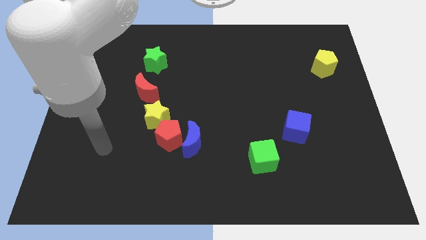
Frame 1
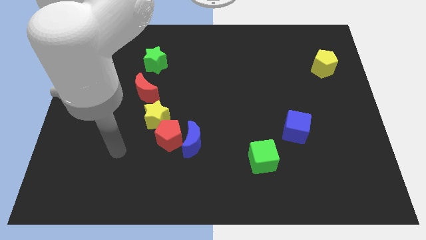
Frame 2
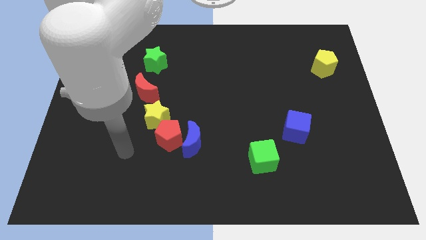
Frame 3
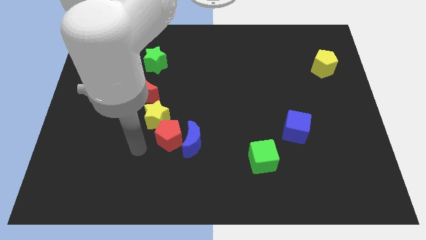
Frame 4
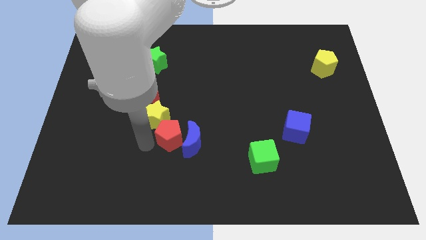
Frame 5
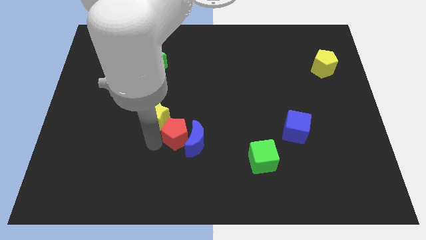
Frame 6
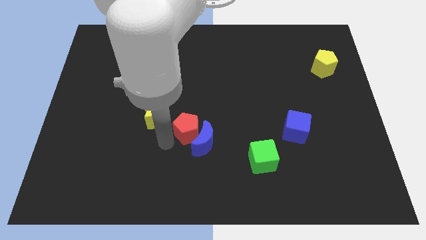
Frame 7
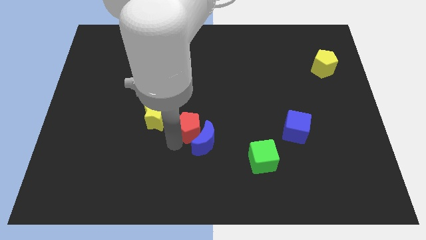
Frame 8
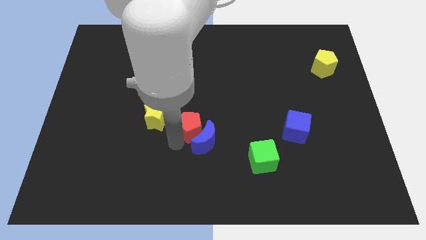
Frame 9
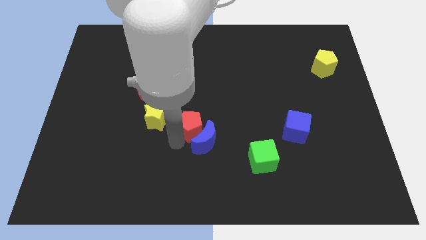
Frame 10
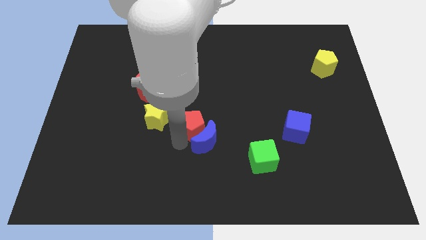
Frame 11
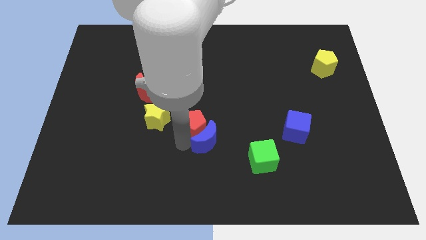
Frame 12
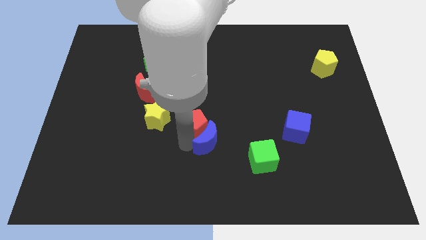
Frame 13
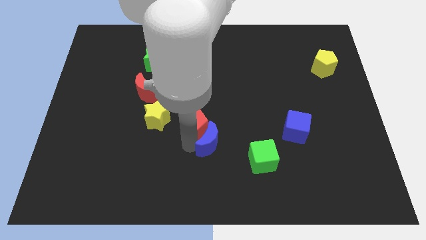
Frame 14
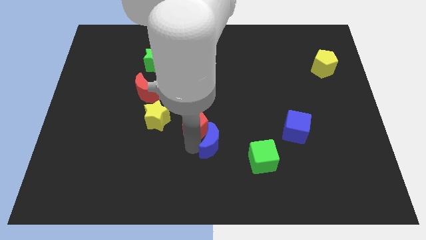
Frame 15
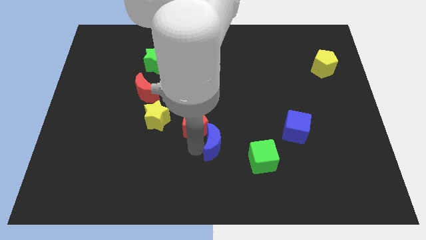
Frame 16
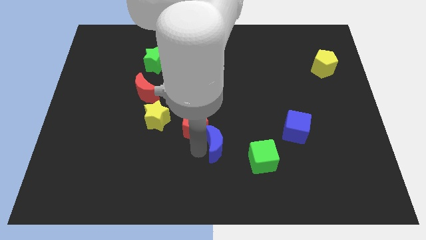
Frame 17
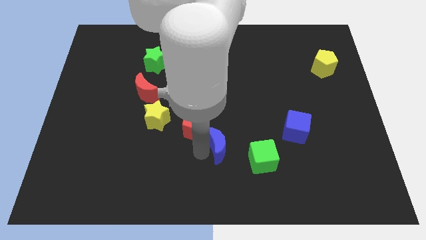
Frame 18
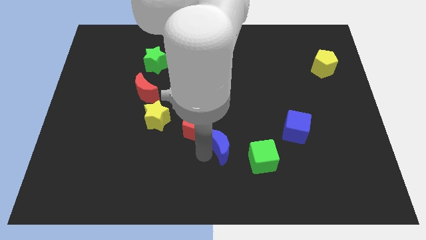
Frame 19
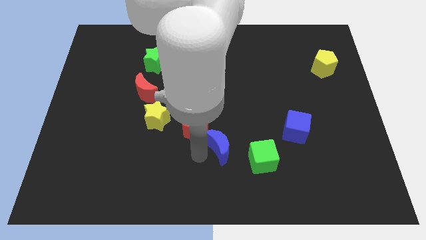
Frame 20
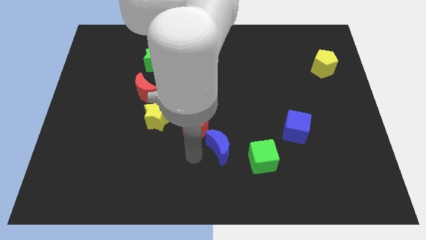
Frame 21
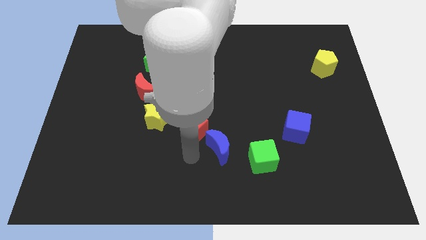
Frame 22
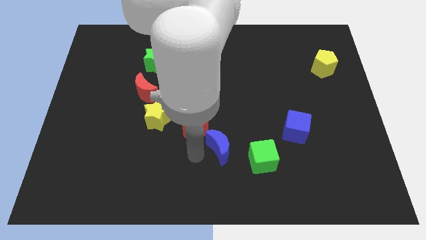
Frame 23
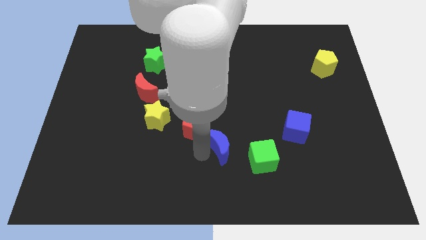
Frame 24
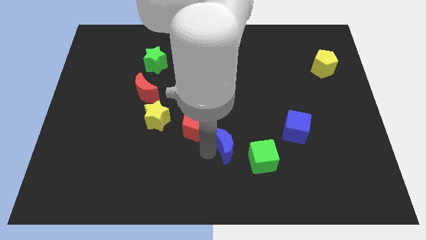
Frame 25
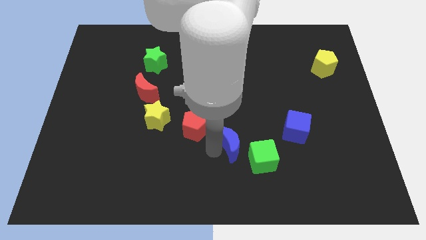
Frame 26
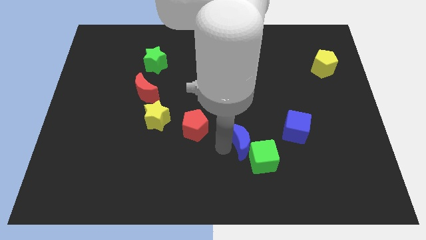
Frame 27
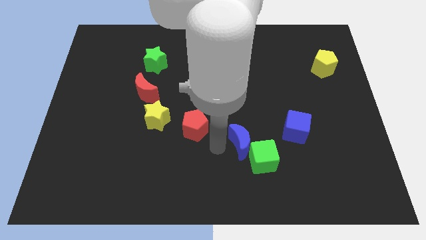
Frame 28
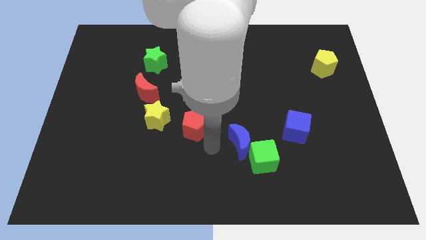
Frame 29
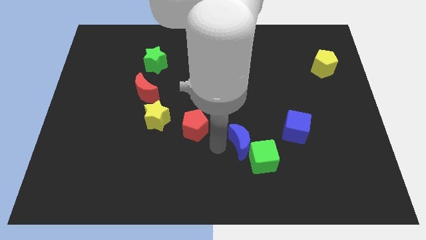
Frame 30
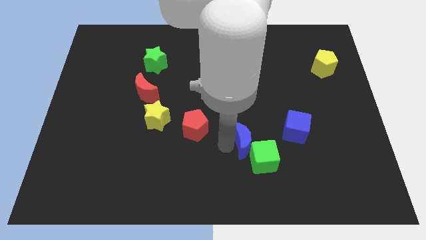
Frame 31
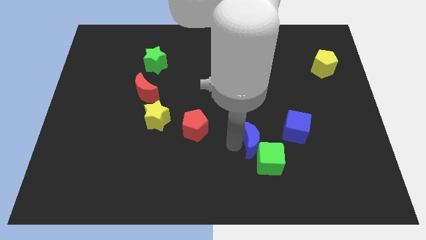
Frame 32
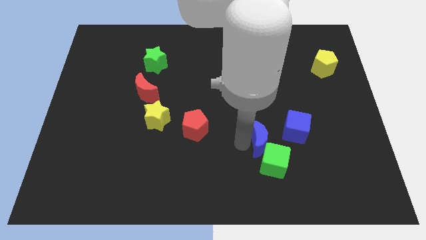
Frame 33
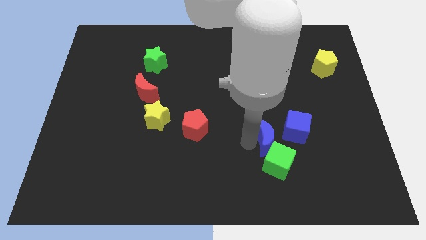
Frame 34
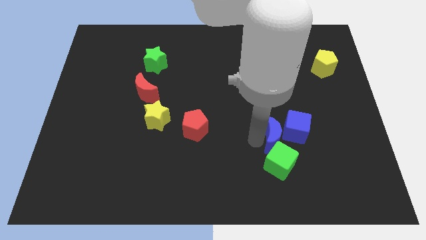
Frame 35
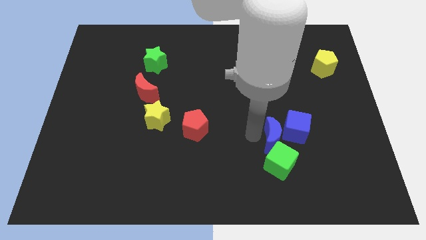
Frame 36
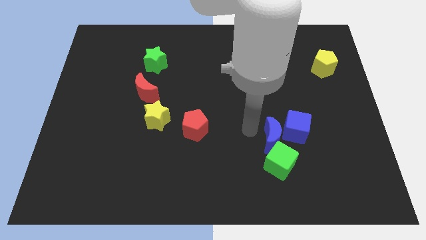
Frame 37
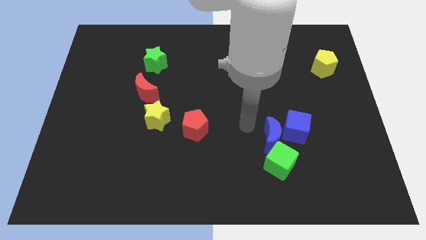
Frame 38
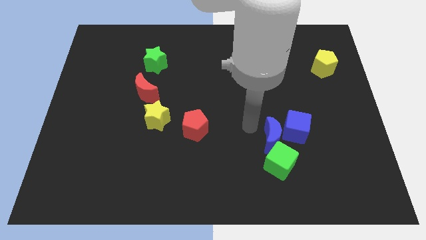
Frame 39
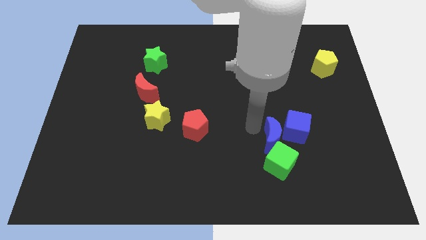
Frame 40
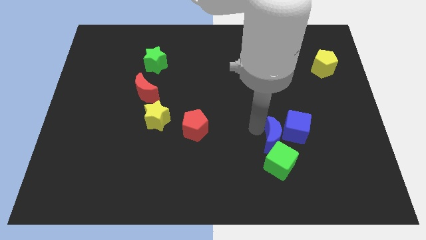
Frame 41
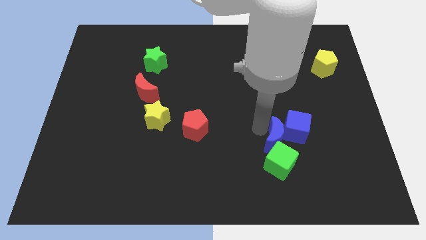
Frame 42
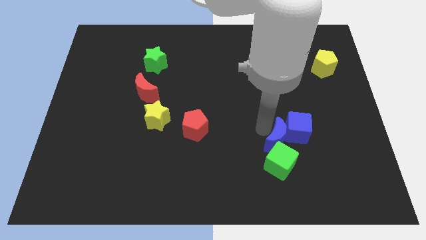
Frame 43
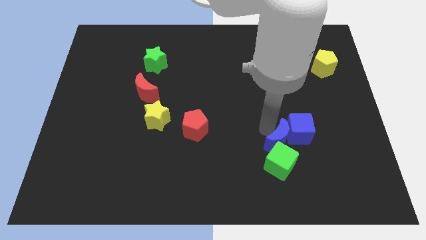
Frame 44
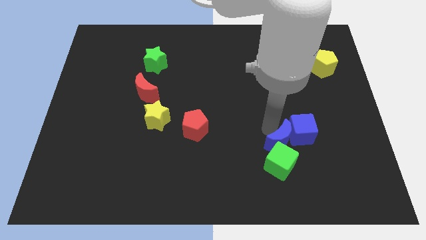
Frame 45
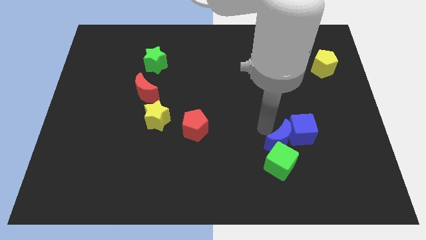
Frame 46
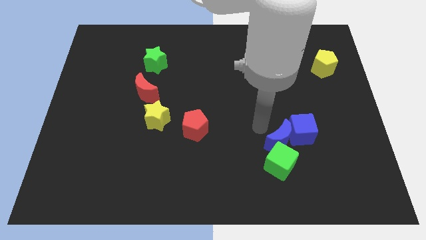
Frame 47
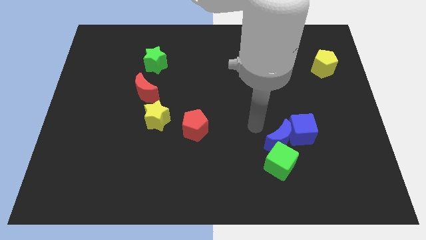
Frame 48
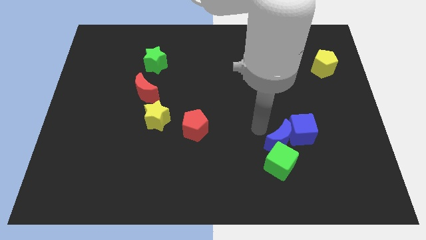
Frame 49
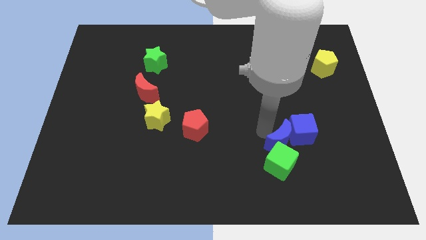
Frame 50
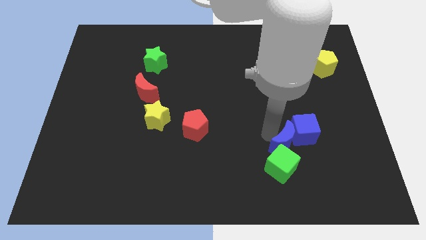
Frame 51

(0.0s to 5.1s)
move the blue moon to the right

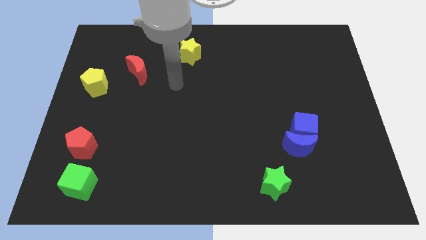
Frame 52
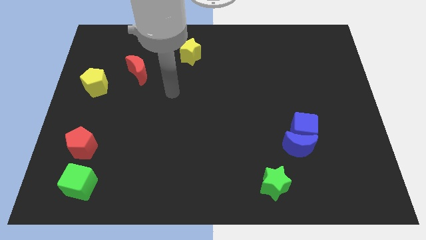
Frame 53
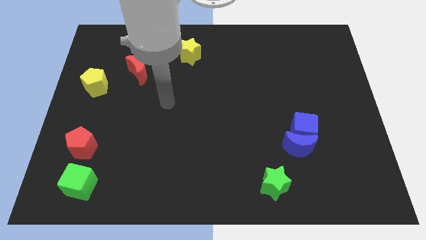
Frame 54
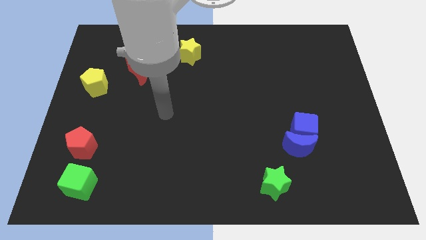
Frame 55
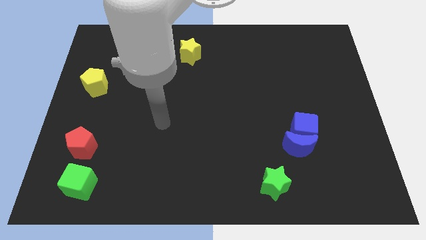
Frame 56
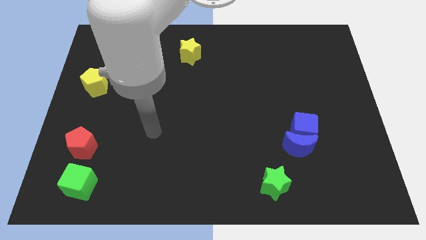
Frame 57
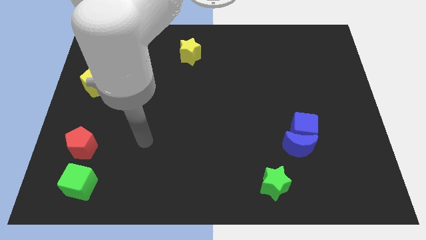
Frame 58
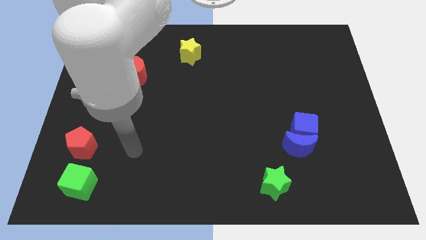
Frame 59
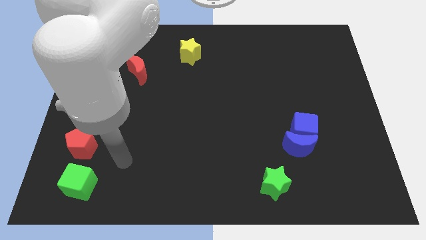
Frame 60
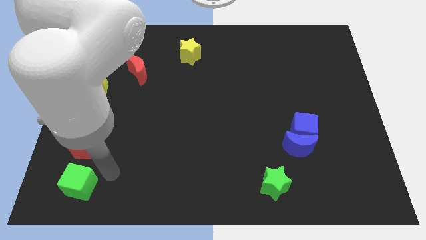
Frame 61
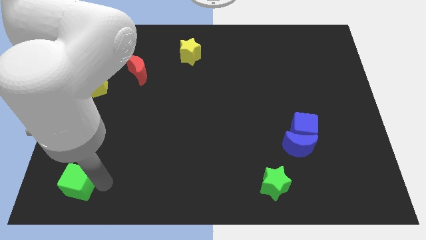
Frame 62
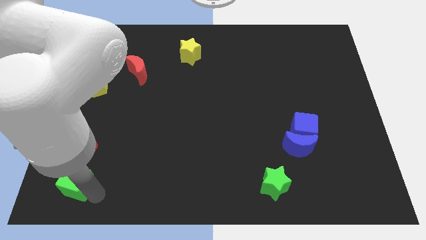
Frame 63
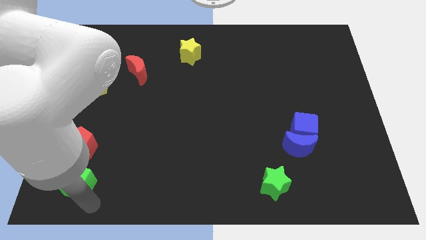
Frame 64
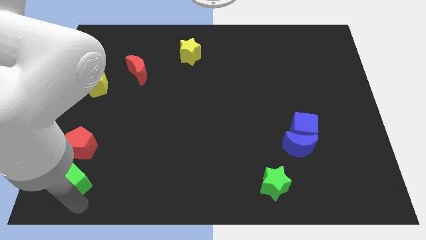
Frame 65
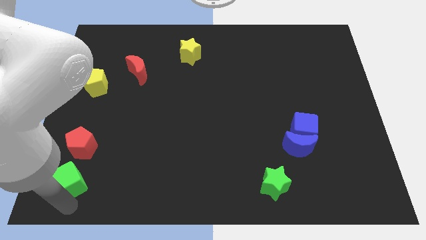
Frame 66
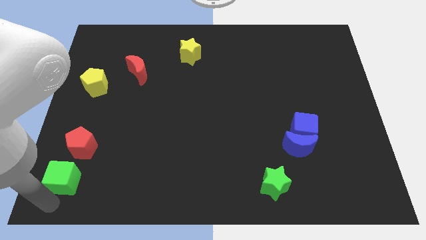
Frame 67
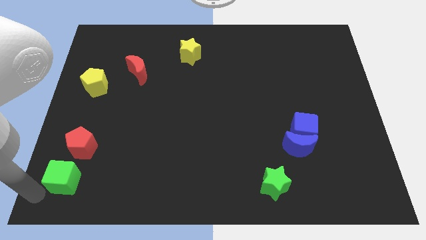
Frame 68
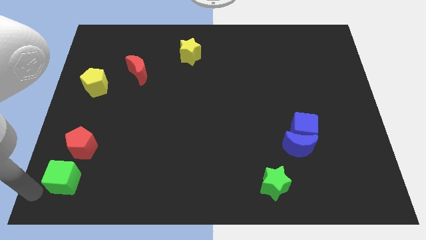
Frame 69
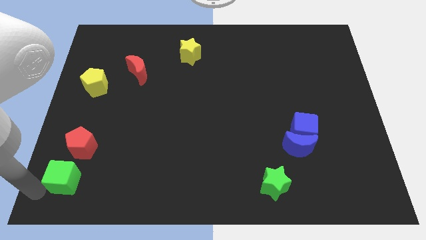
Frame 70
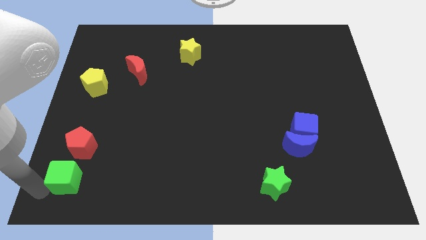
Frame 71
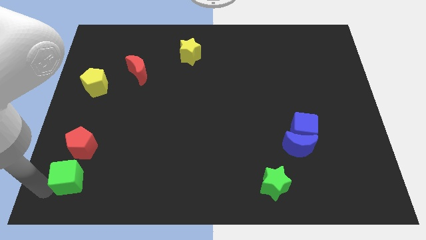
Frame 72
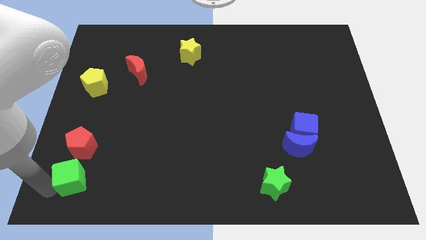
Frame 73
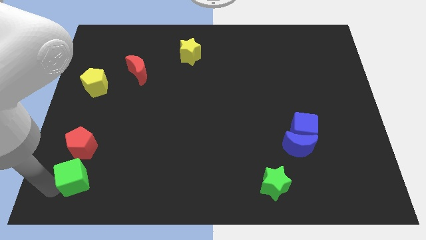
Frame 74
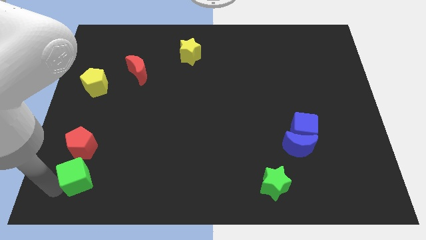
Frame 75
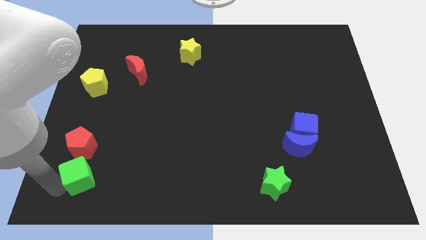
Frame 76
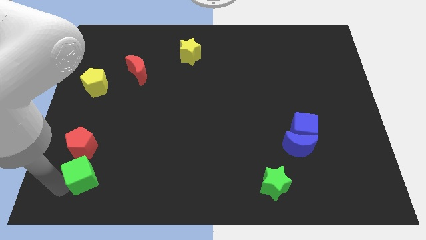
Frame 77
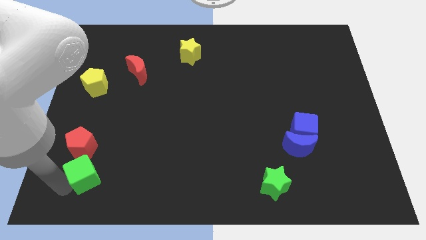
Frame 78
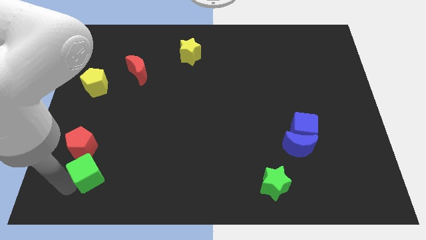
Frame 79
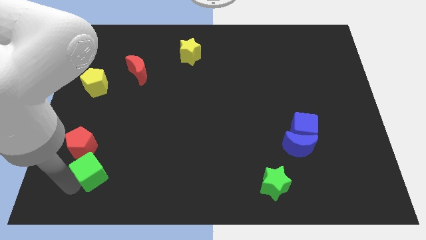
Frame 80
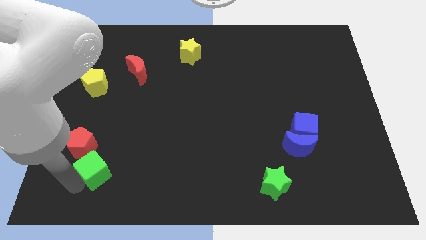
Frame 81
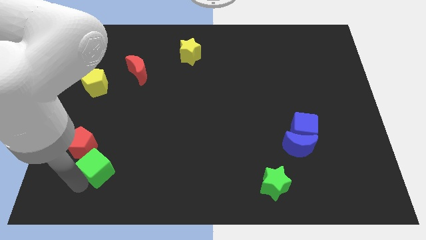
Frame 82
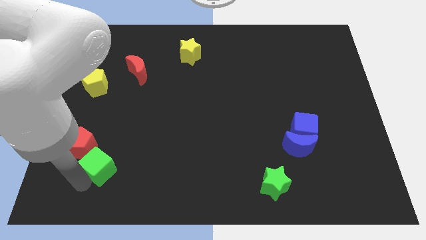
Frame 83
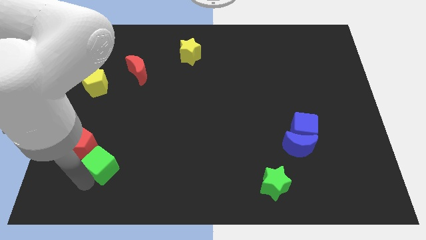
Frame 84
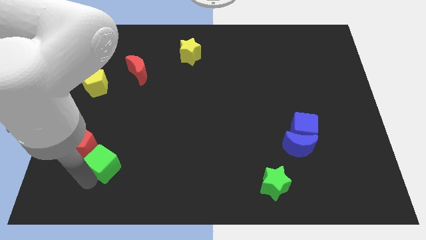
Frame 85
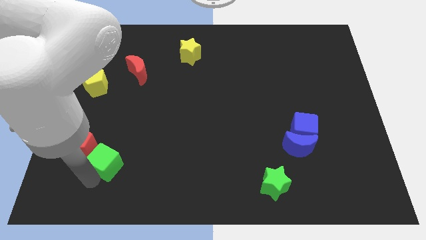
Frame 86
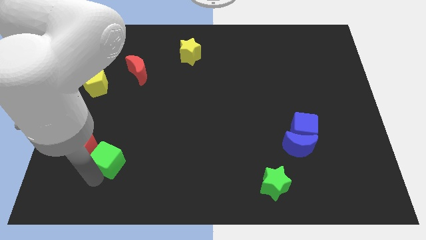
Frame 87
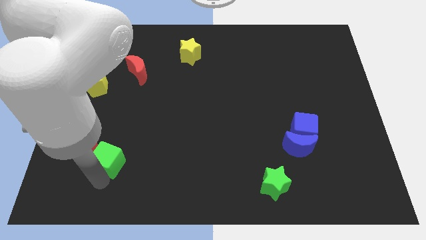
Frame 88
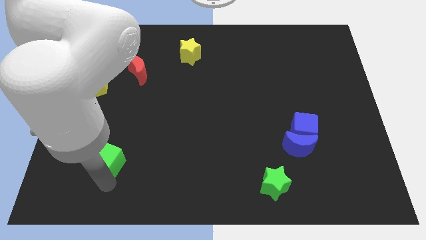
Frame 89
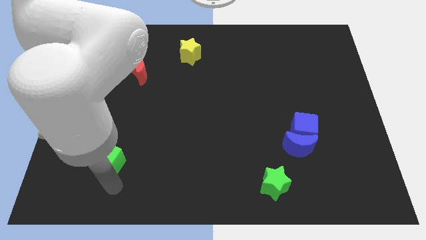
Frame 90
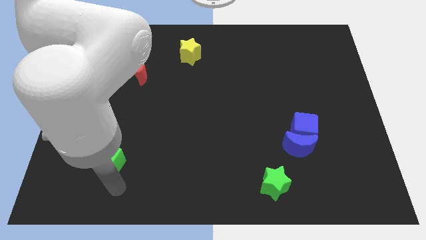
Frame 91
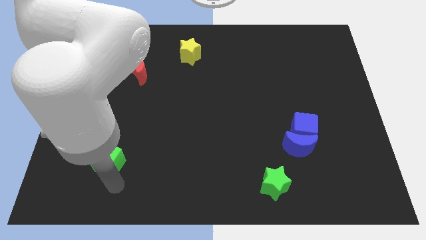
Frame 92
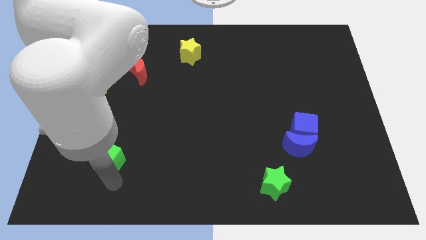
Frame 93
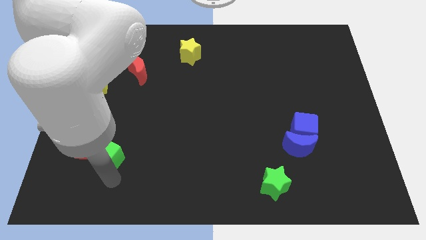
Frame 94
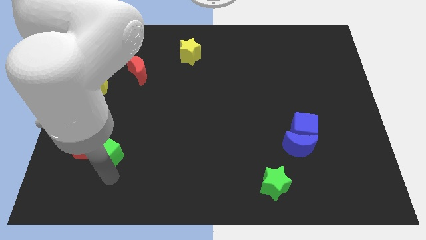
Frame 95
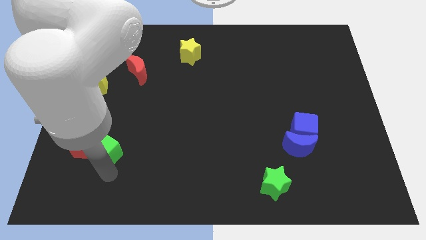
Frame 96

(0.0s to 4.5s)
slightly move the green cube upwards
